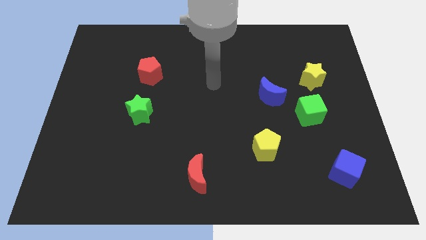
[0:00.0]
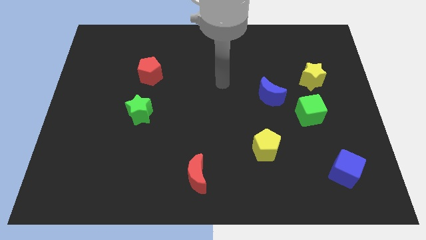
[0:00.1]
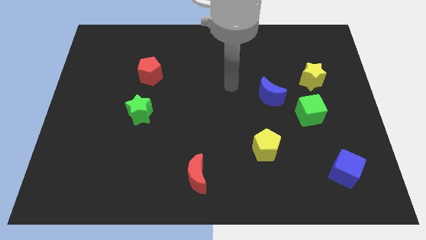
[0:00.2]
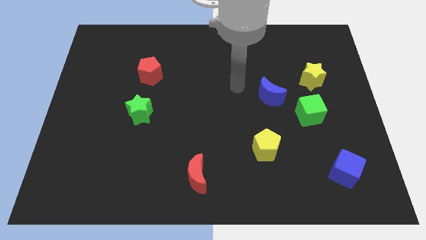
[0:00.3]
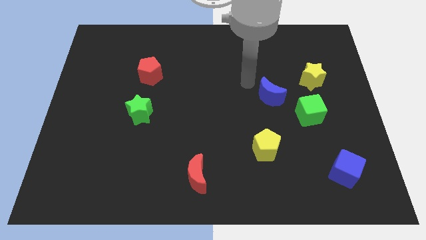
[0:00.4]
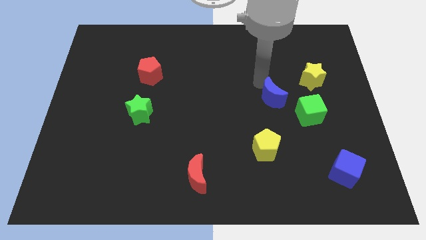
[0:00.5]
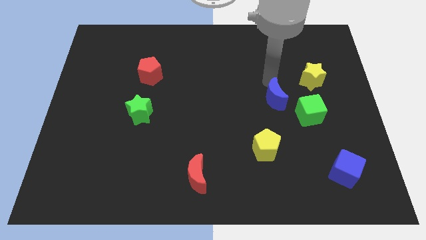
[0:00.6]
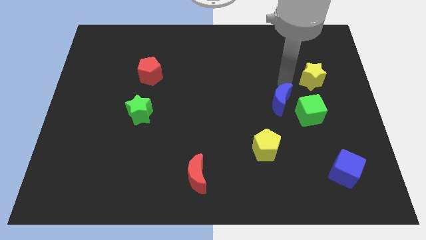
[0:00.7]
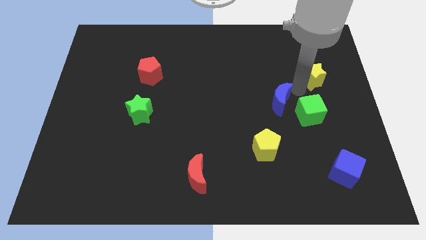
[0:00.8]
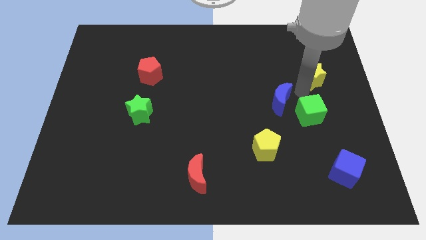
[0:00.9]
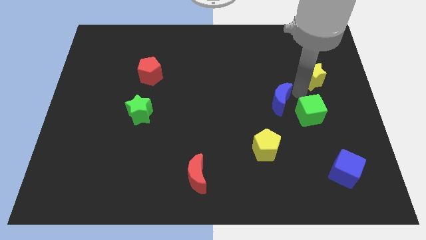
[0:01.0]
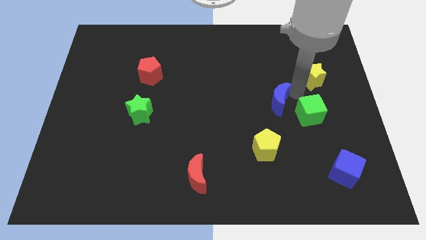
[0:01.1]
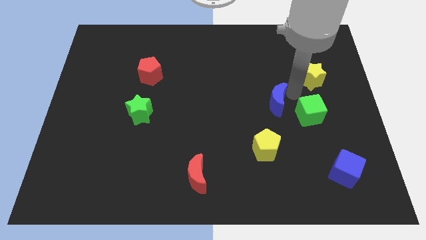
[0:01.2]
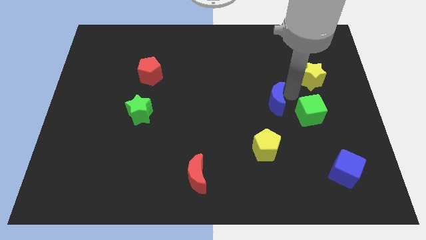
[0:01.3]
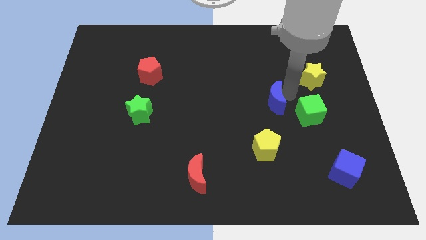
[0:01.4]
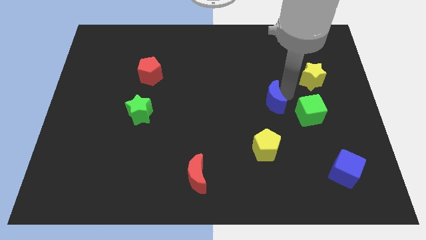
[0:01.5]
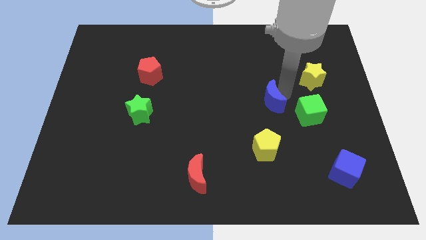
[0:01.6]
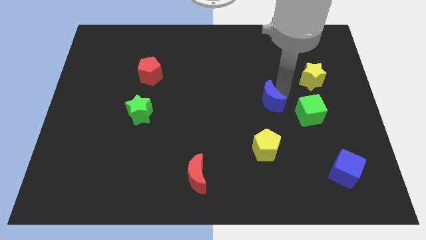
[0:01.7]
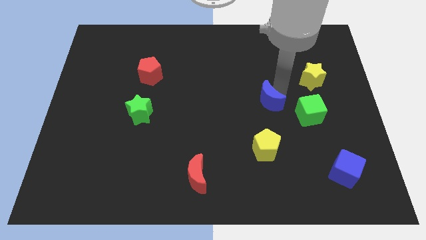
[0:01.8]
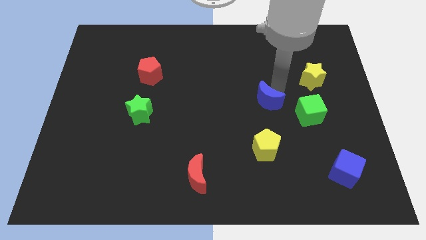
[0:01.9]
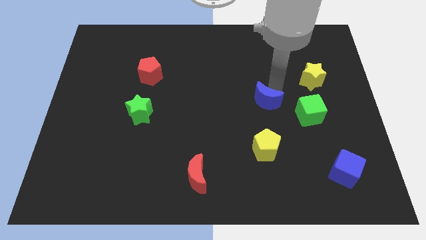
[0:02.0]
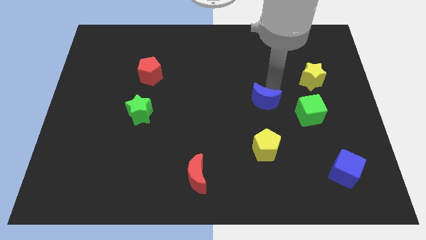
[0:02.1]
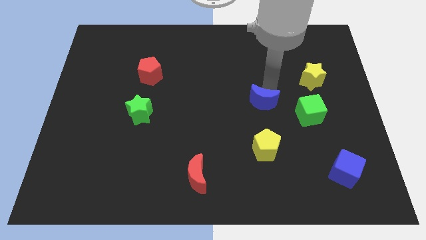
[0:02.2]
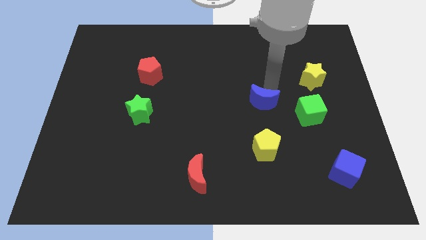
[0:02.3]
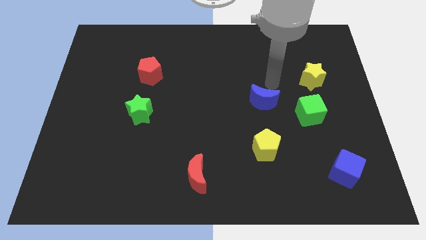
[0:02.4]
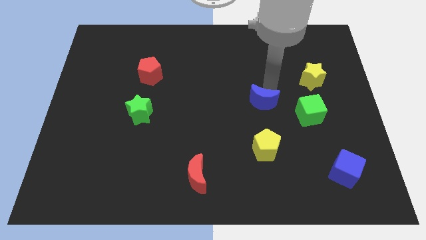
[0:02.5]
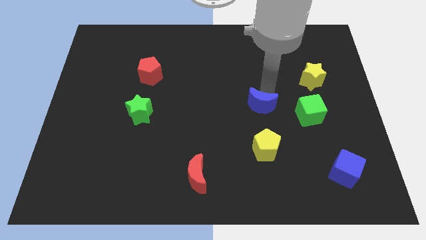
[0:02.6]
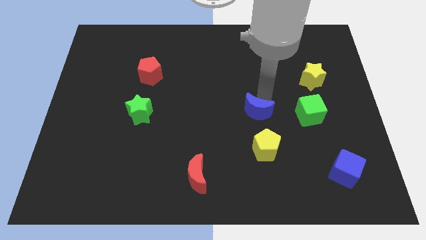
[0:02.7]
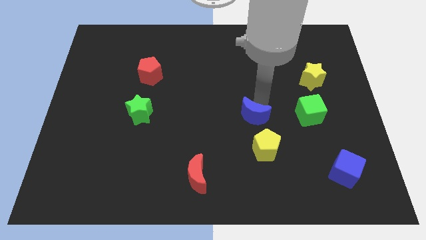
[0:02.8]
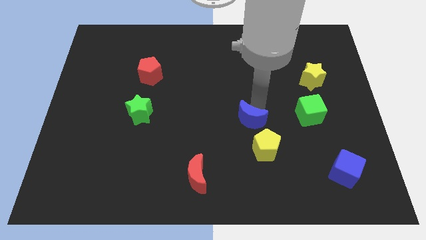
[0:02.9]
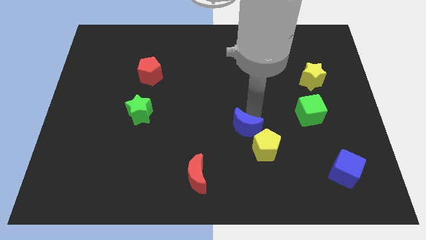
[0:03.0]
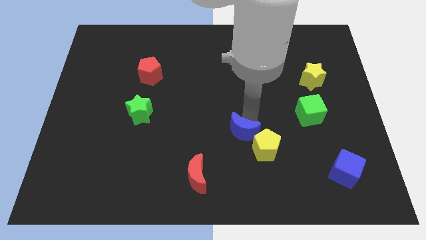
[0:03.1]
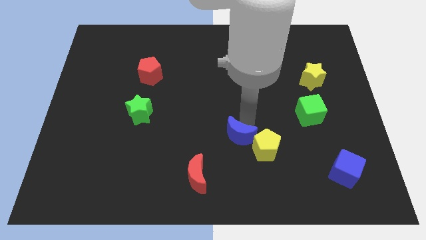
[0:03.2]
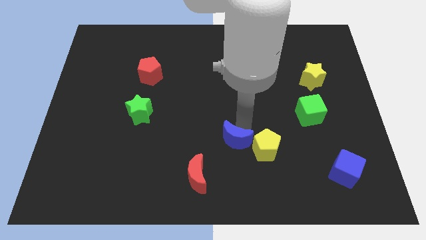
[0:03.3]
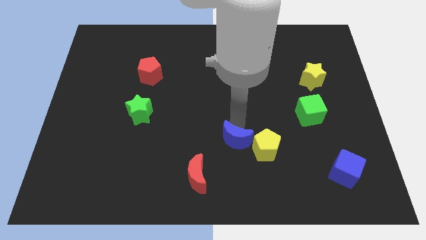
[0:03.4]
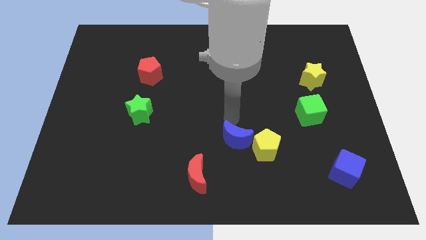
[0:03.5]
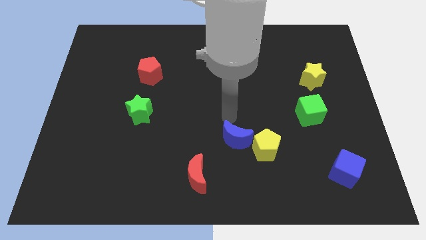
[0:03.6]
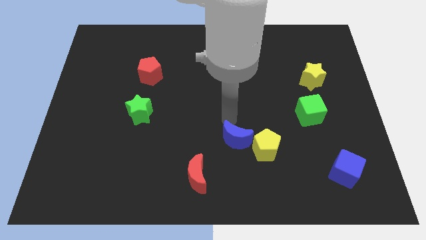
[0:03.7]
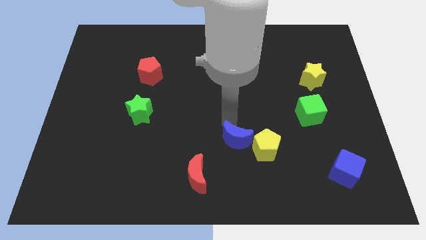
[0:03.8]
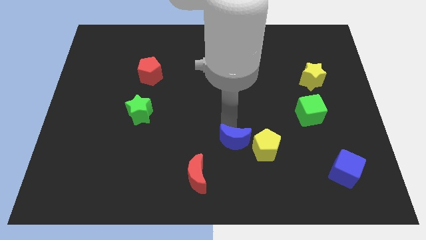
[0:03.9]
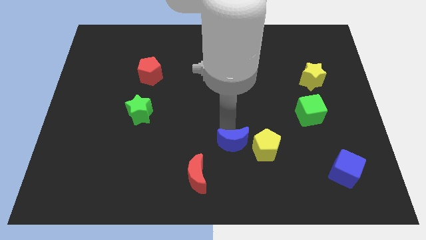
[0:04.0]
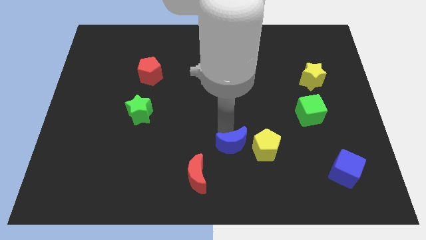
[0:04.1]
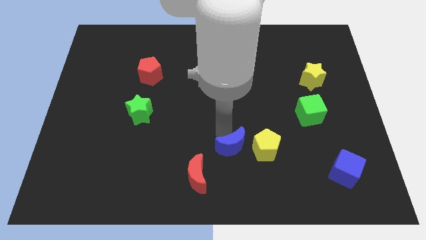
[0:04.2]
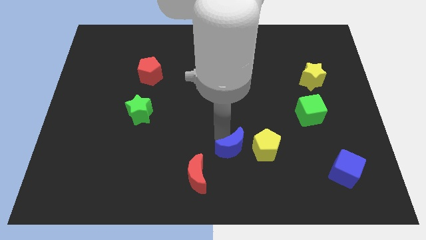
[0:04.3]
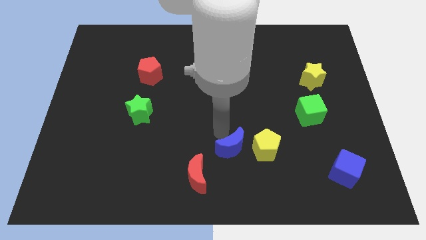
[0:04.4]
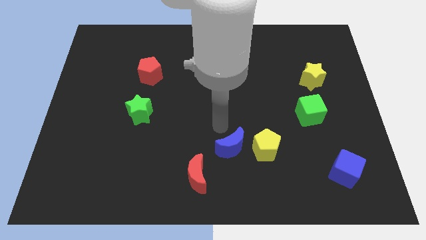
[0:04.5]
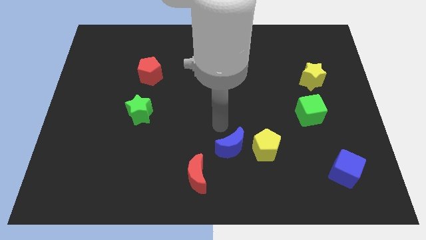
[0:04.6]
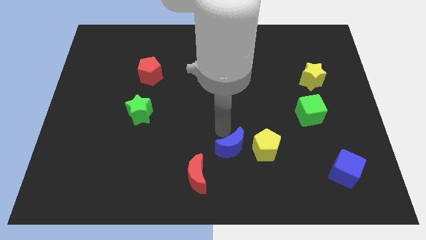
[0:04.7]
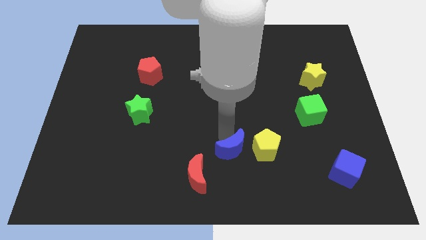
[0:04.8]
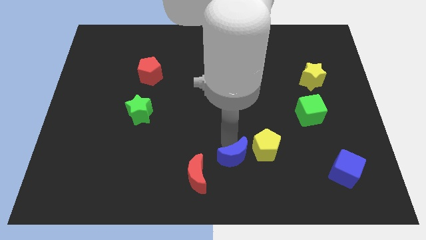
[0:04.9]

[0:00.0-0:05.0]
slide the blue moon just right of the red moon
